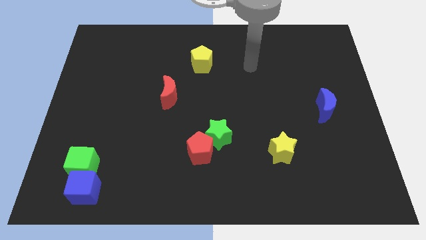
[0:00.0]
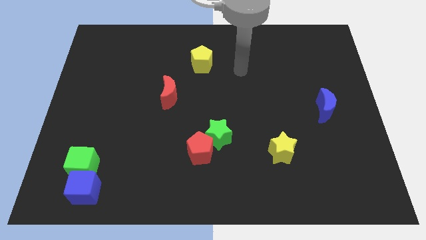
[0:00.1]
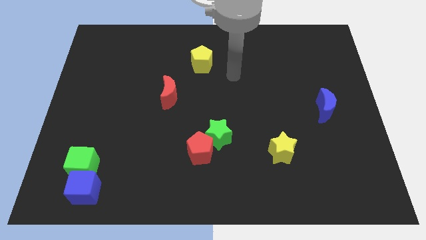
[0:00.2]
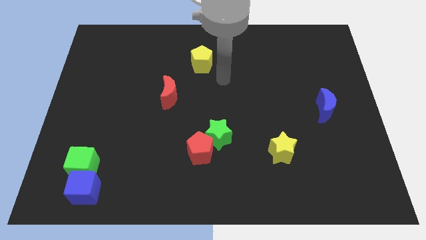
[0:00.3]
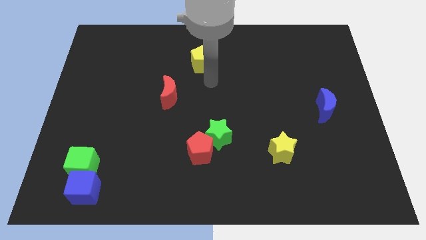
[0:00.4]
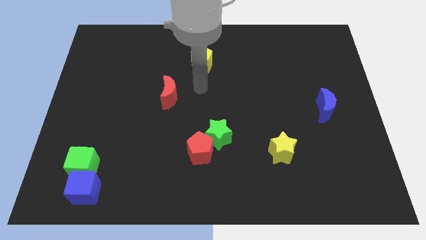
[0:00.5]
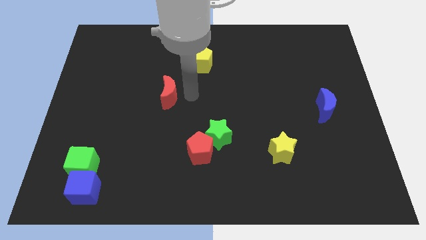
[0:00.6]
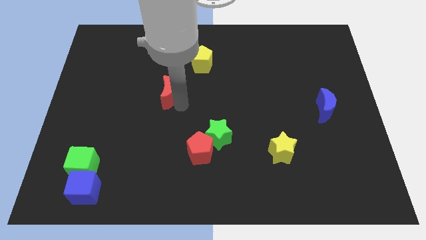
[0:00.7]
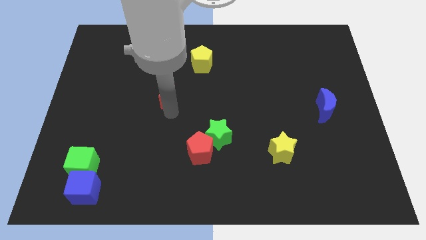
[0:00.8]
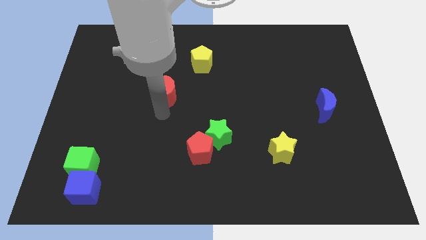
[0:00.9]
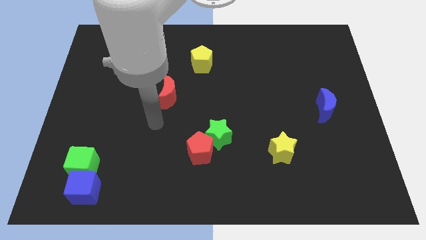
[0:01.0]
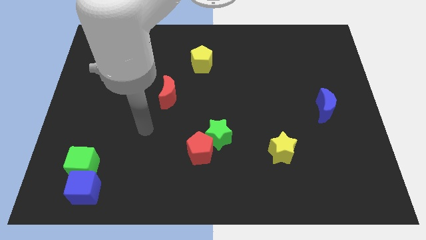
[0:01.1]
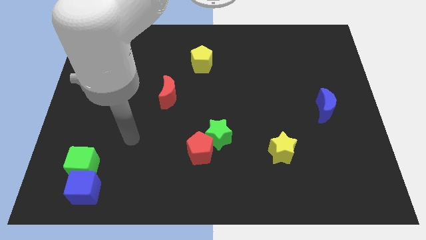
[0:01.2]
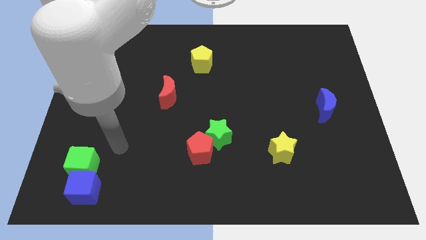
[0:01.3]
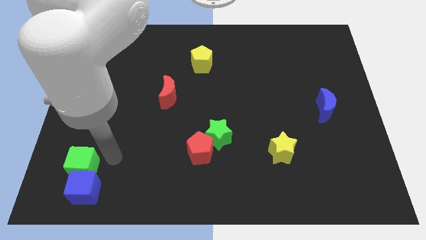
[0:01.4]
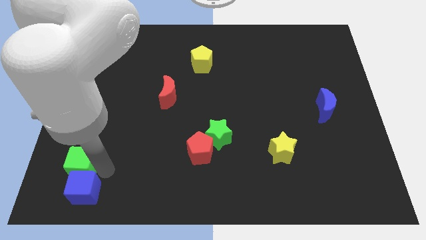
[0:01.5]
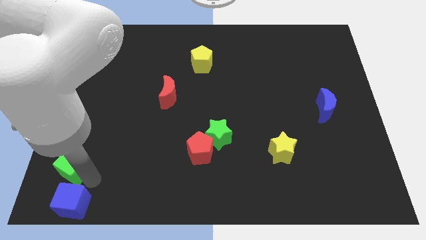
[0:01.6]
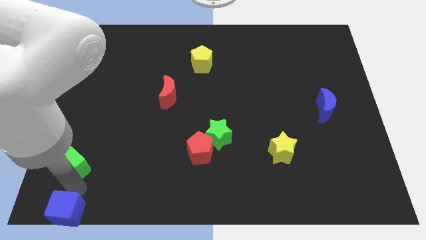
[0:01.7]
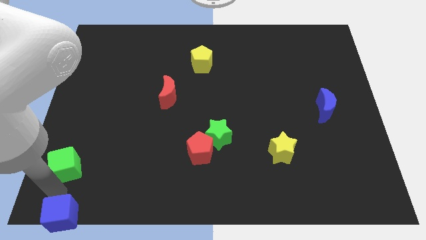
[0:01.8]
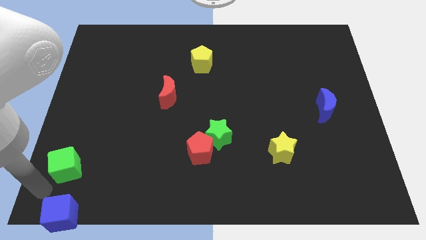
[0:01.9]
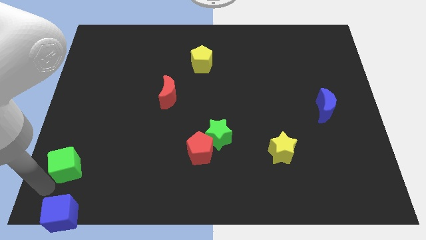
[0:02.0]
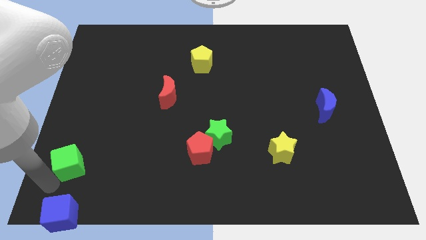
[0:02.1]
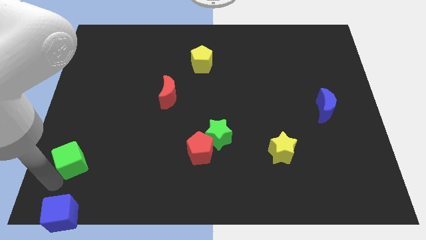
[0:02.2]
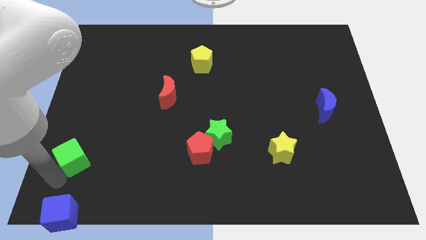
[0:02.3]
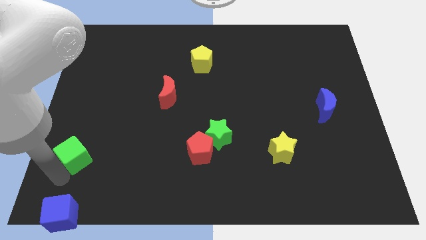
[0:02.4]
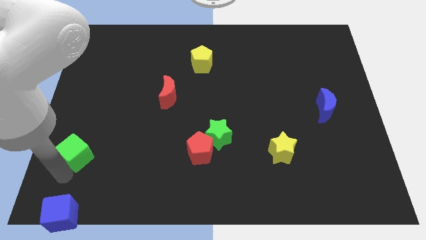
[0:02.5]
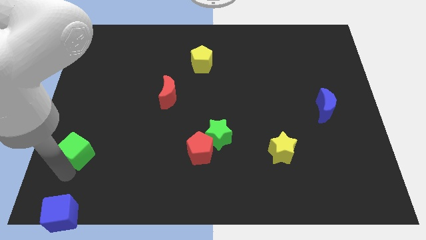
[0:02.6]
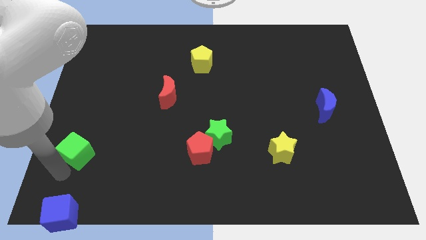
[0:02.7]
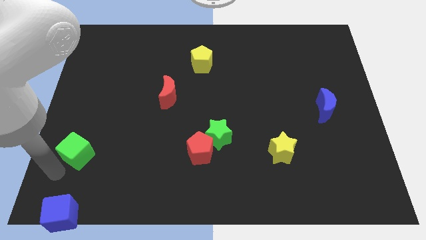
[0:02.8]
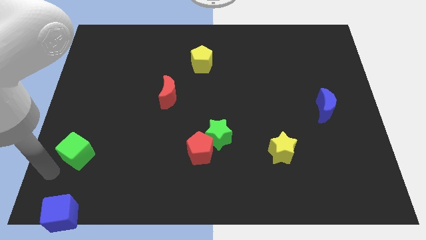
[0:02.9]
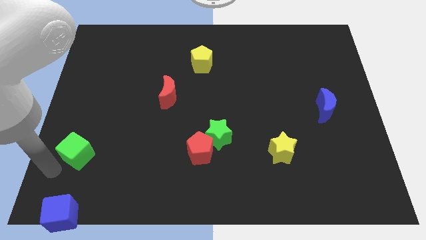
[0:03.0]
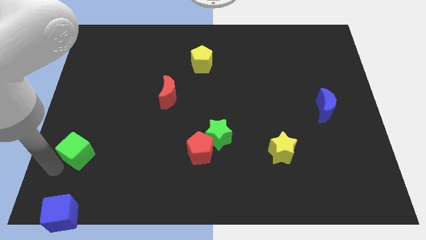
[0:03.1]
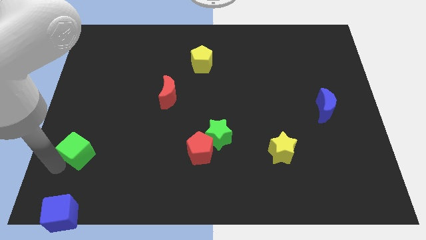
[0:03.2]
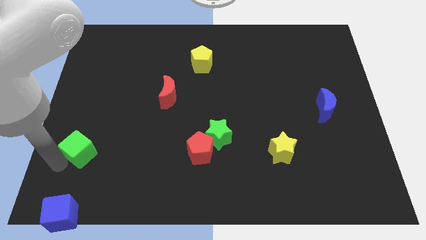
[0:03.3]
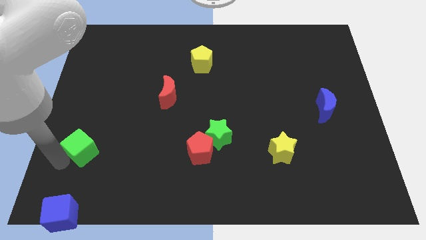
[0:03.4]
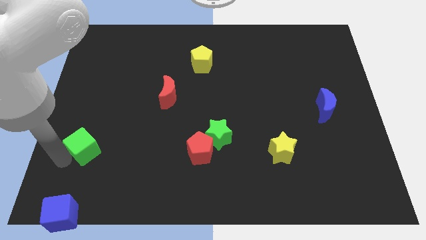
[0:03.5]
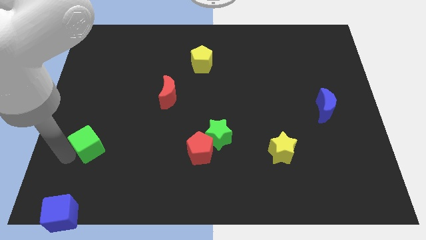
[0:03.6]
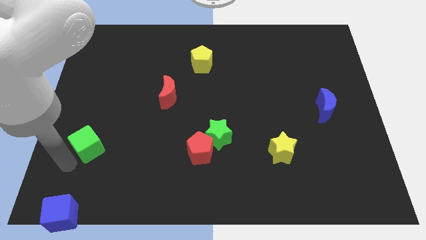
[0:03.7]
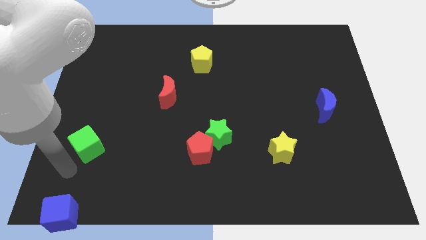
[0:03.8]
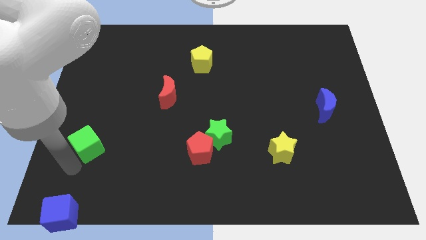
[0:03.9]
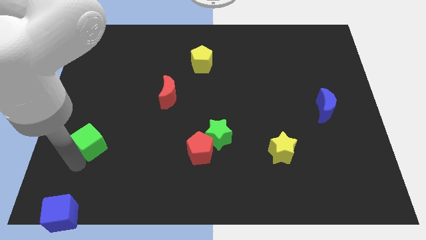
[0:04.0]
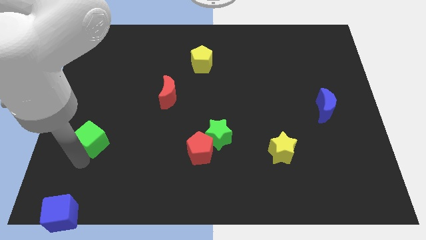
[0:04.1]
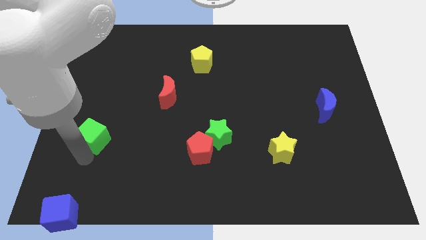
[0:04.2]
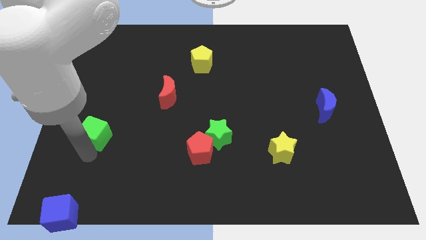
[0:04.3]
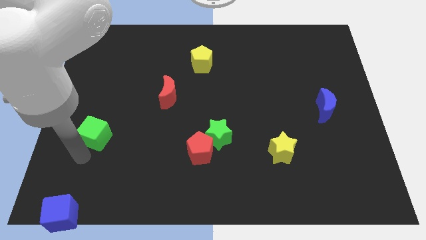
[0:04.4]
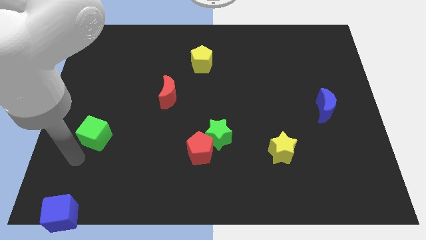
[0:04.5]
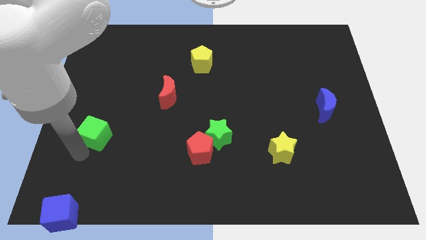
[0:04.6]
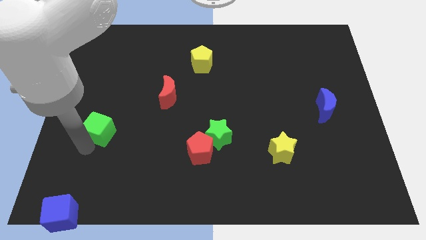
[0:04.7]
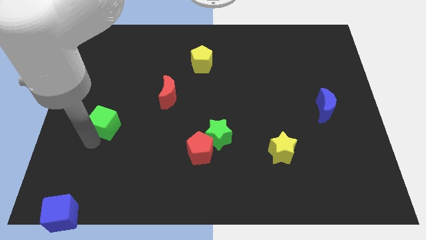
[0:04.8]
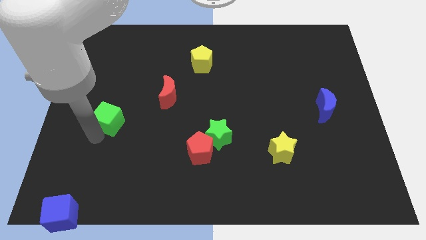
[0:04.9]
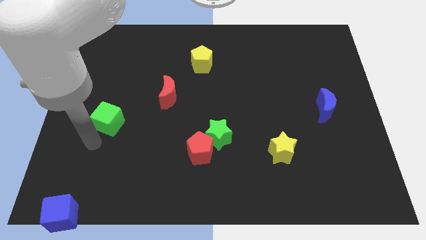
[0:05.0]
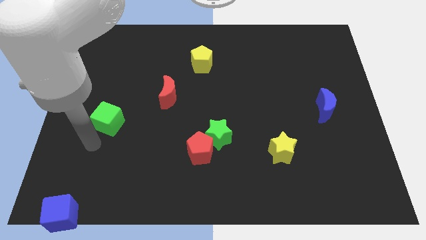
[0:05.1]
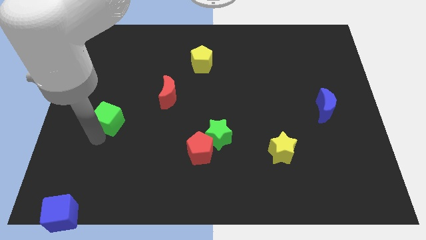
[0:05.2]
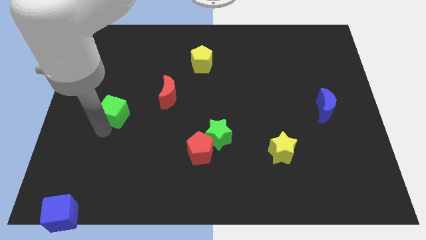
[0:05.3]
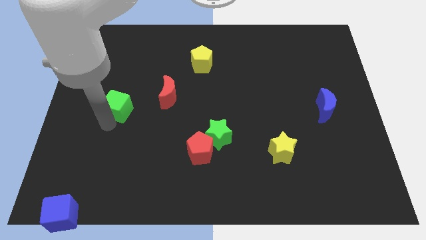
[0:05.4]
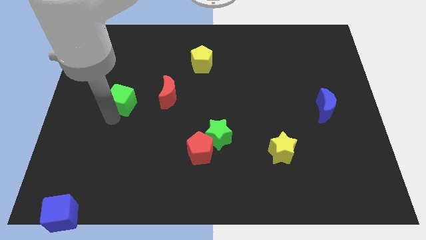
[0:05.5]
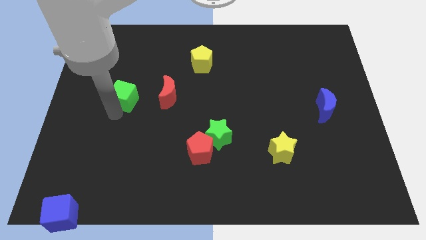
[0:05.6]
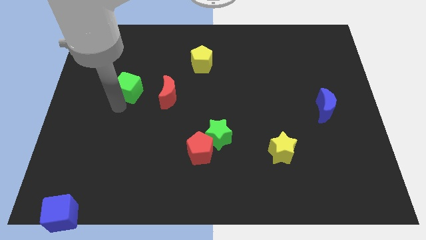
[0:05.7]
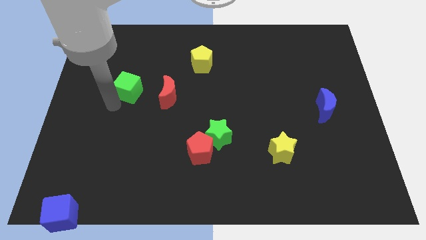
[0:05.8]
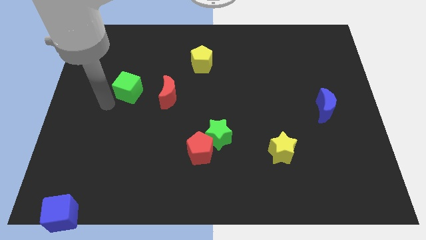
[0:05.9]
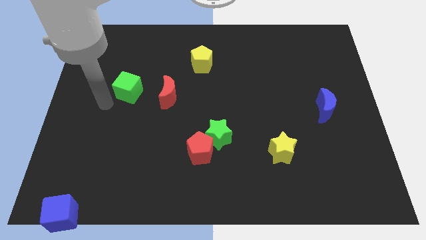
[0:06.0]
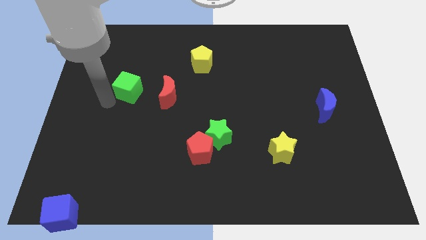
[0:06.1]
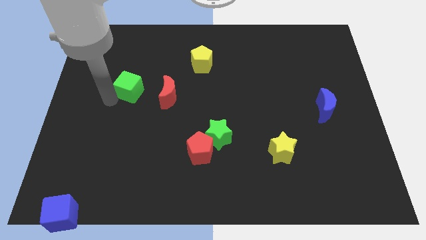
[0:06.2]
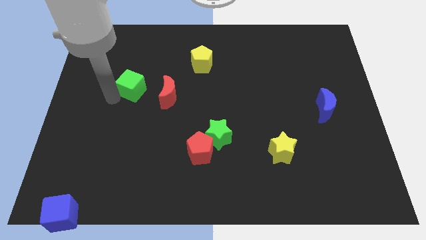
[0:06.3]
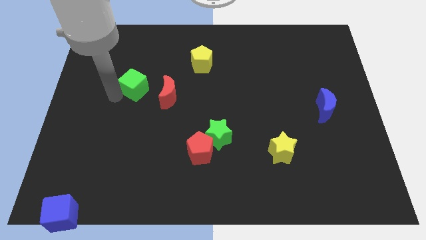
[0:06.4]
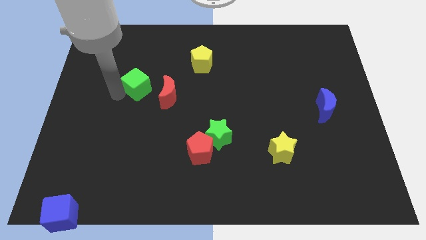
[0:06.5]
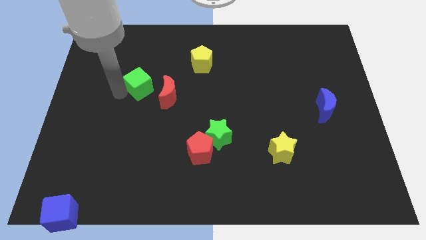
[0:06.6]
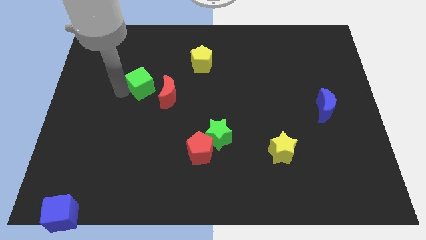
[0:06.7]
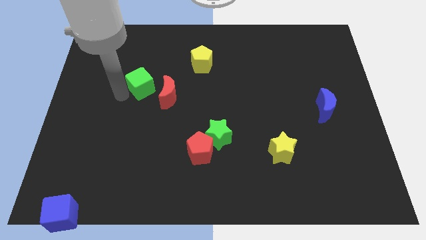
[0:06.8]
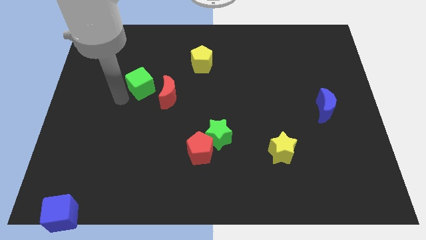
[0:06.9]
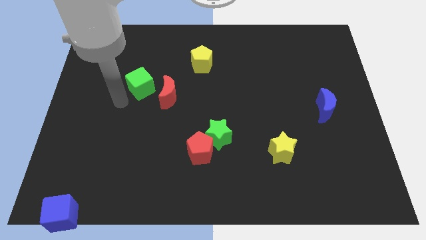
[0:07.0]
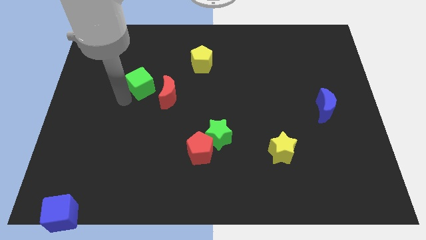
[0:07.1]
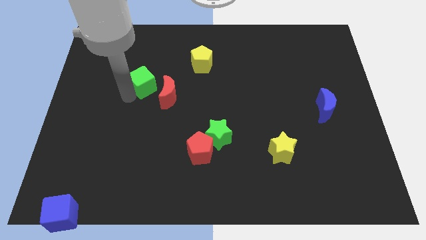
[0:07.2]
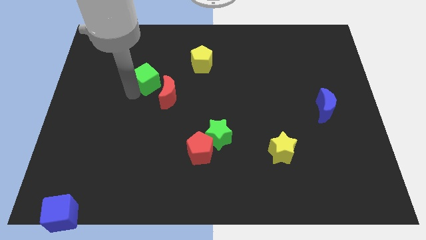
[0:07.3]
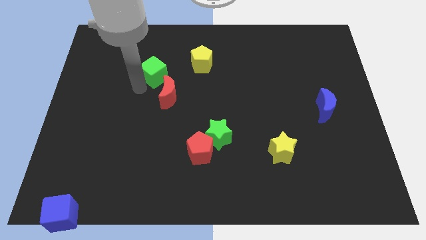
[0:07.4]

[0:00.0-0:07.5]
move the green cube to the top side of the red moon

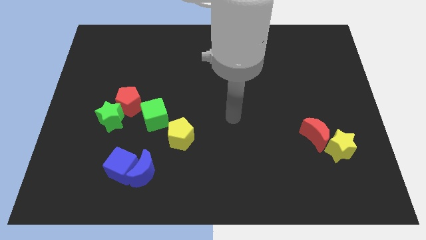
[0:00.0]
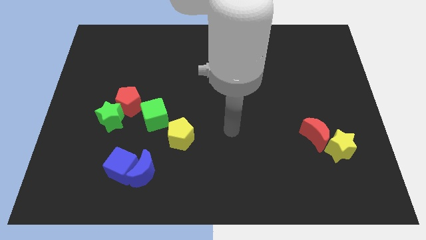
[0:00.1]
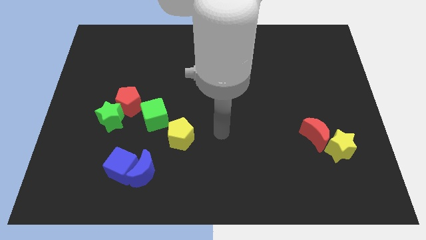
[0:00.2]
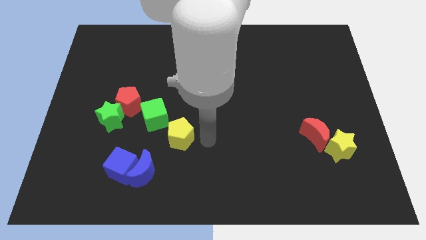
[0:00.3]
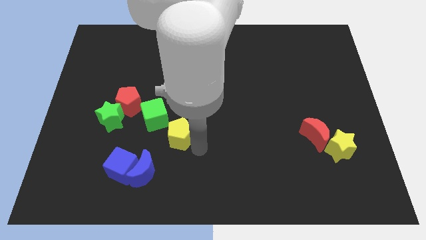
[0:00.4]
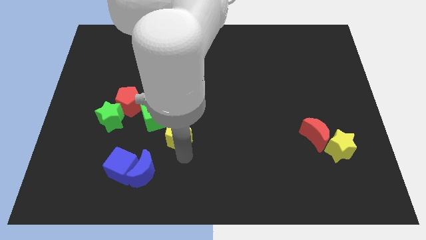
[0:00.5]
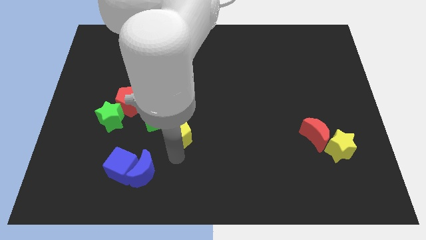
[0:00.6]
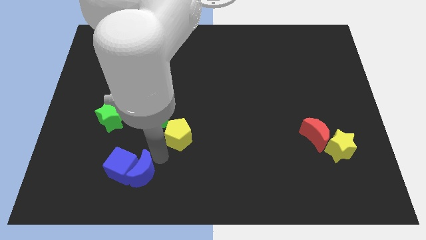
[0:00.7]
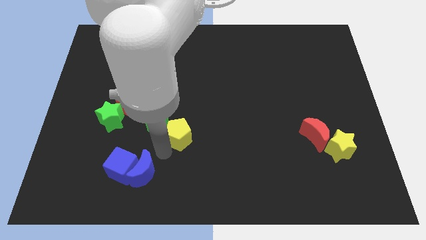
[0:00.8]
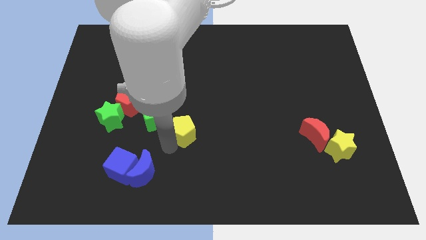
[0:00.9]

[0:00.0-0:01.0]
push the yellow pentagon to the right side of the green cube
